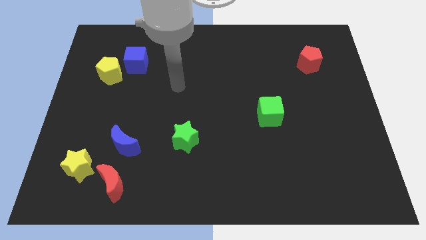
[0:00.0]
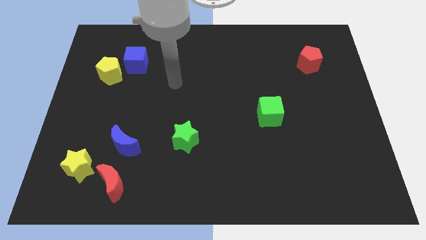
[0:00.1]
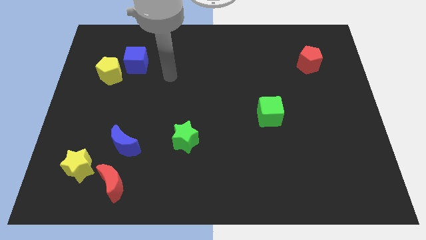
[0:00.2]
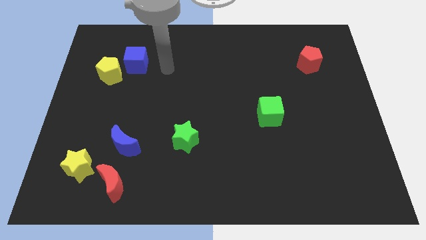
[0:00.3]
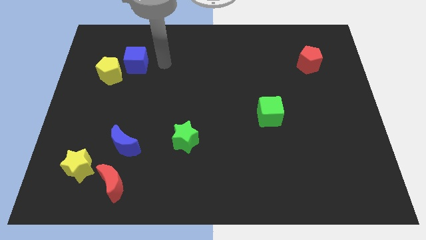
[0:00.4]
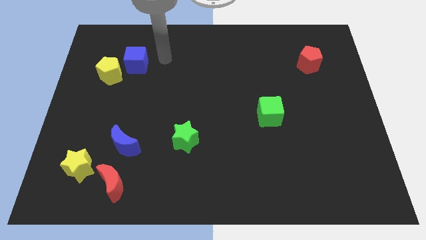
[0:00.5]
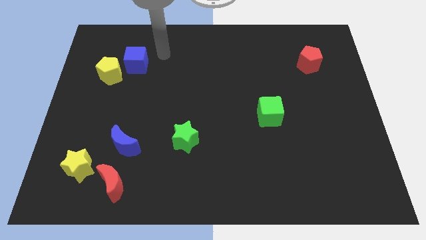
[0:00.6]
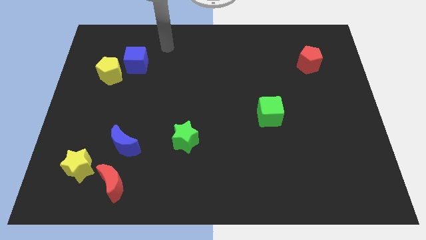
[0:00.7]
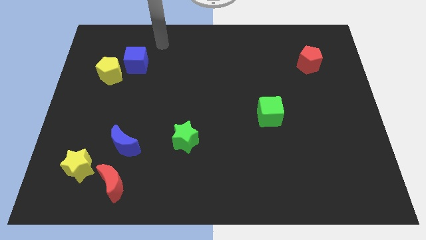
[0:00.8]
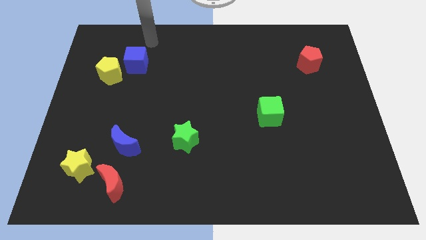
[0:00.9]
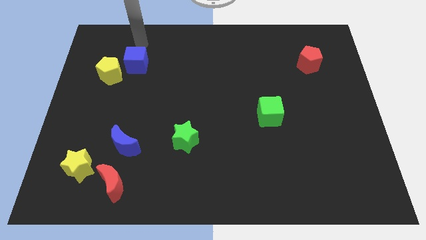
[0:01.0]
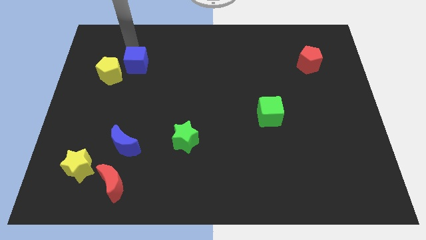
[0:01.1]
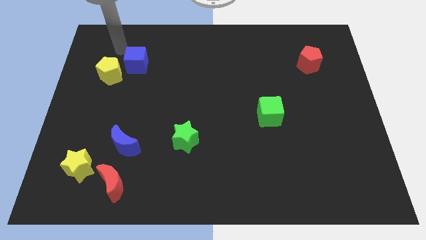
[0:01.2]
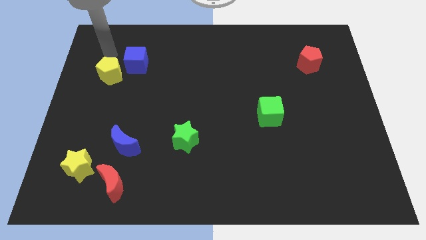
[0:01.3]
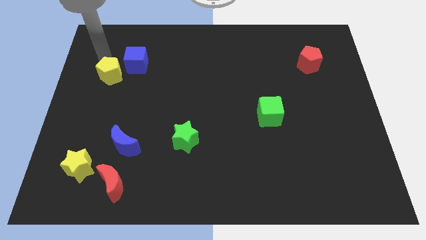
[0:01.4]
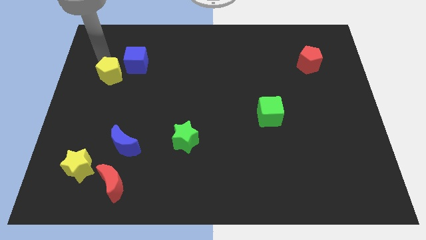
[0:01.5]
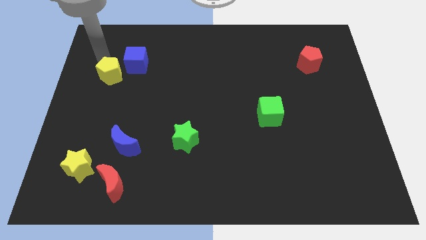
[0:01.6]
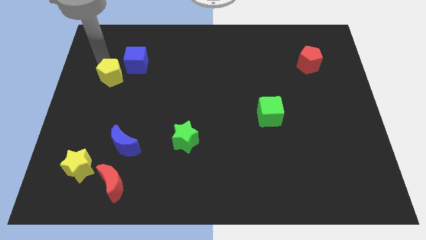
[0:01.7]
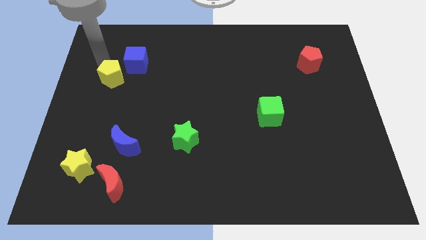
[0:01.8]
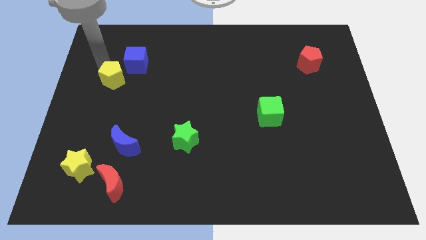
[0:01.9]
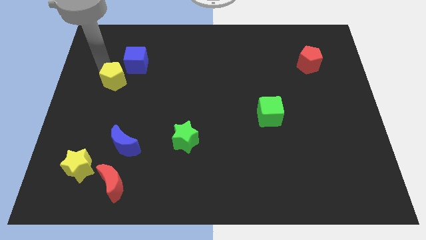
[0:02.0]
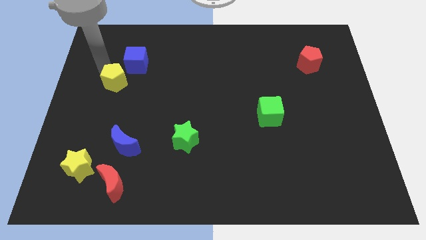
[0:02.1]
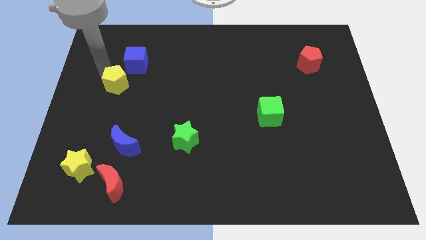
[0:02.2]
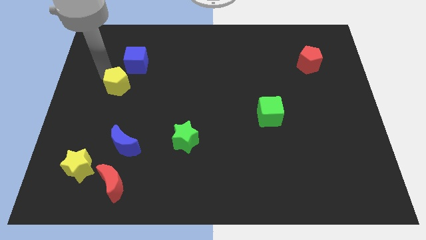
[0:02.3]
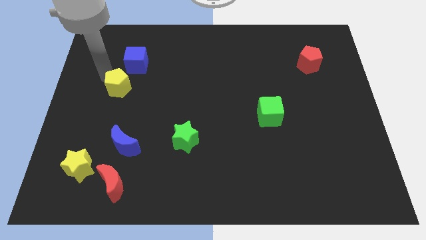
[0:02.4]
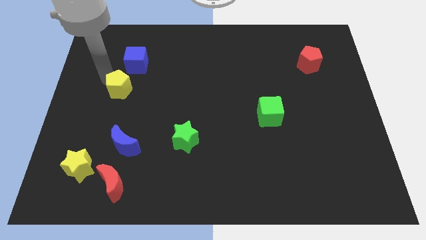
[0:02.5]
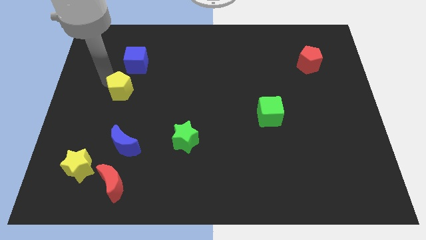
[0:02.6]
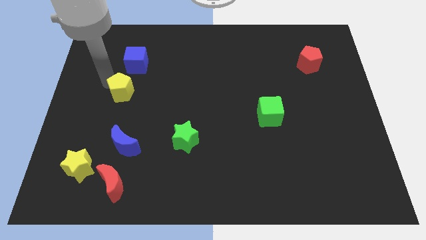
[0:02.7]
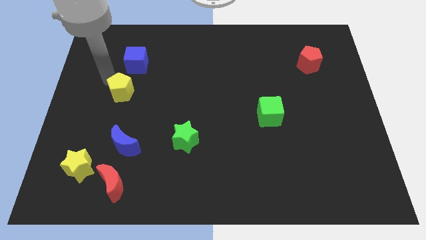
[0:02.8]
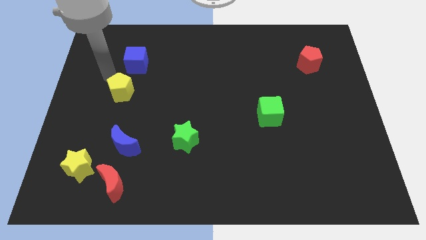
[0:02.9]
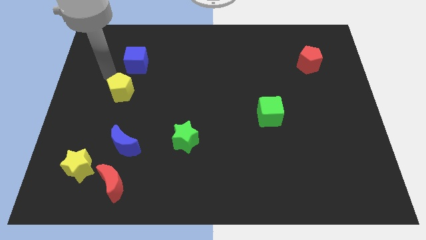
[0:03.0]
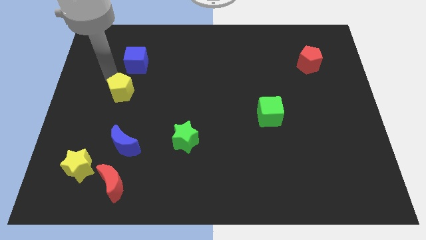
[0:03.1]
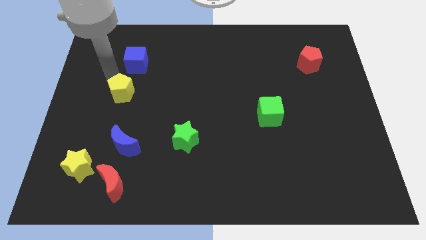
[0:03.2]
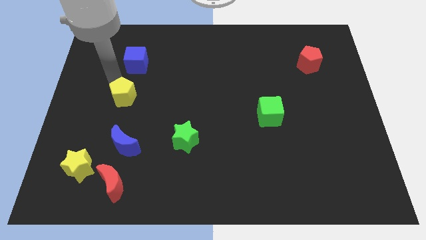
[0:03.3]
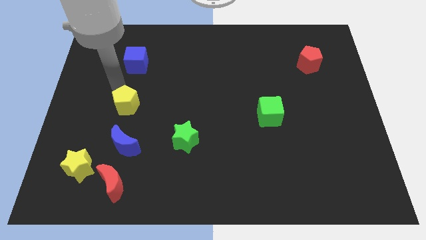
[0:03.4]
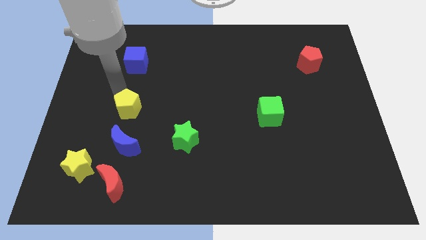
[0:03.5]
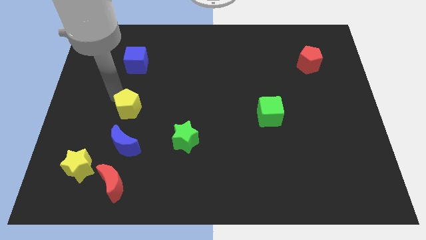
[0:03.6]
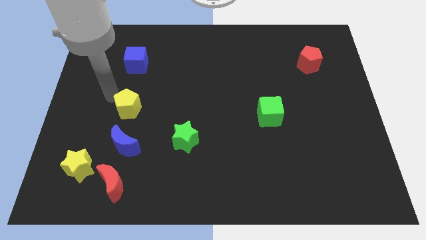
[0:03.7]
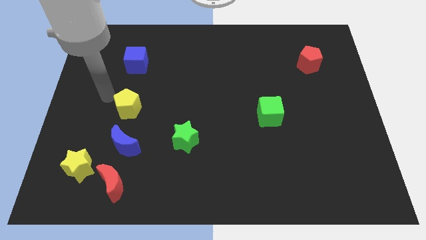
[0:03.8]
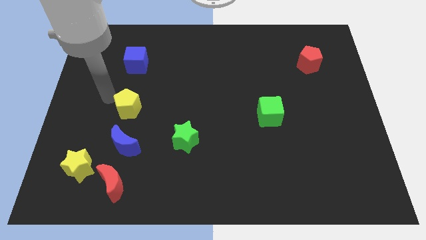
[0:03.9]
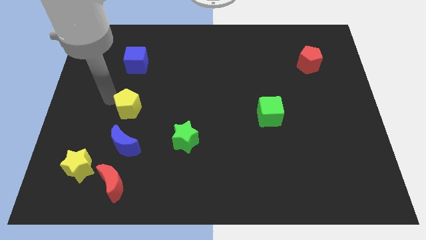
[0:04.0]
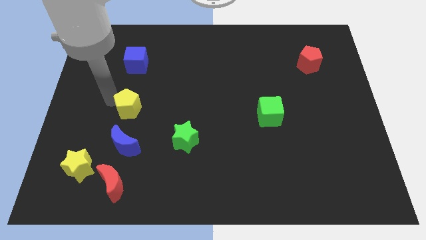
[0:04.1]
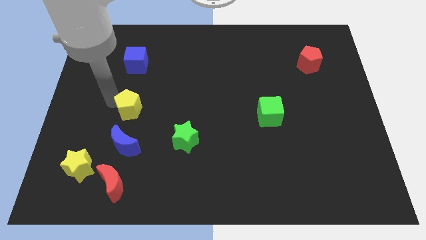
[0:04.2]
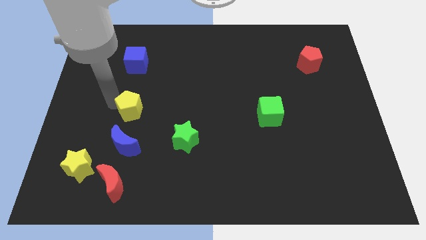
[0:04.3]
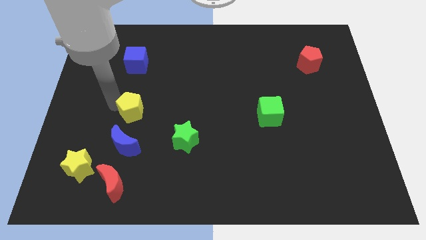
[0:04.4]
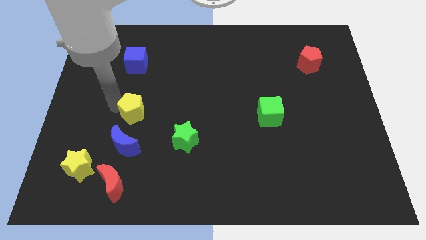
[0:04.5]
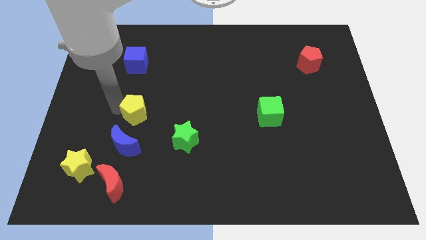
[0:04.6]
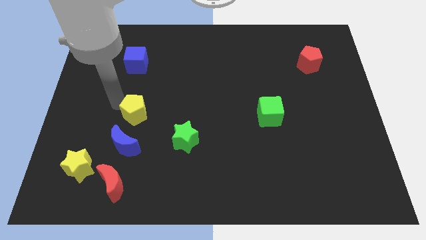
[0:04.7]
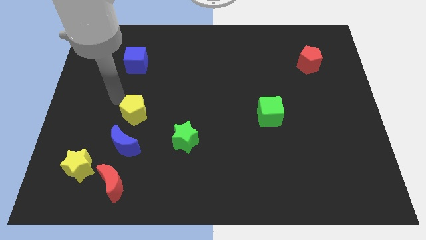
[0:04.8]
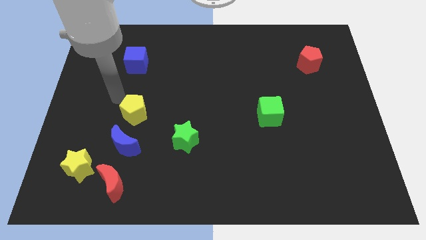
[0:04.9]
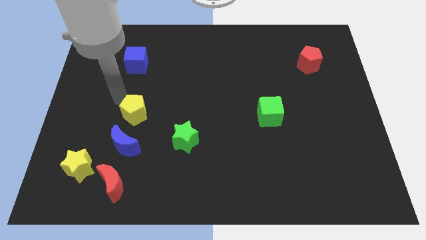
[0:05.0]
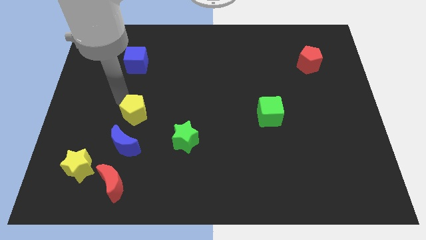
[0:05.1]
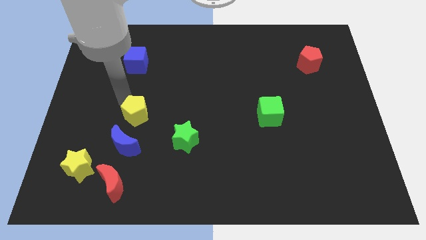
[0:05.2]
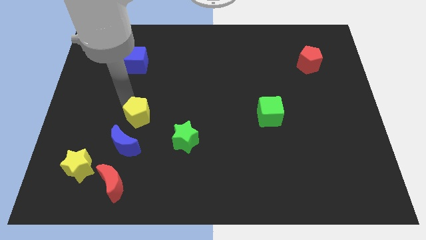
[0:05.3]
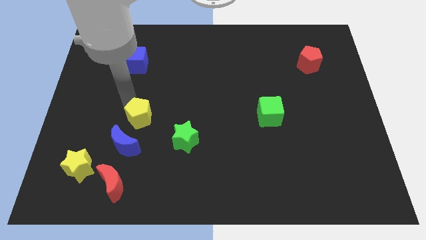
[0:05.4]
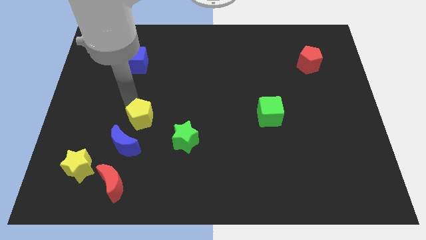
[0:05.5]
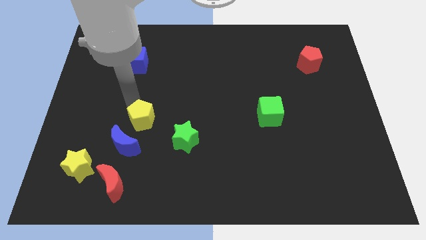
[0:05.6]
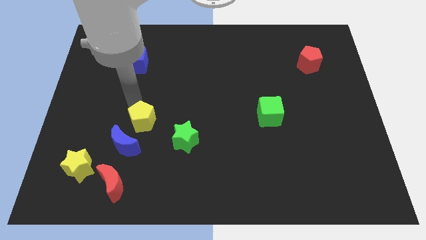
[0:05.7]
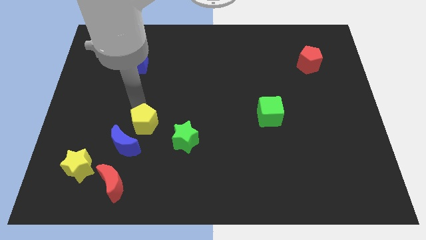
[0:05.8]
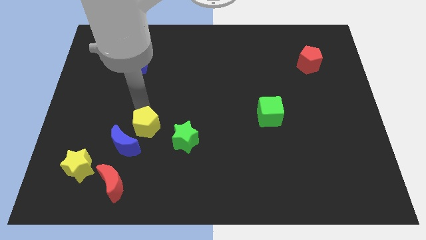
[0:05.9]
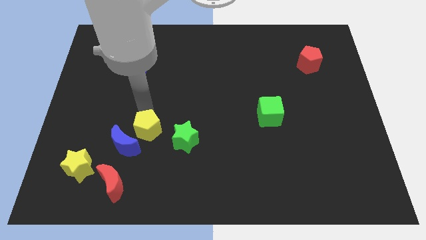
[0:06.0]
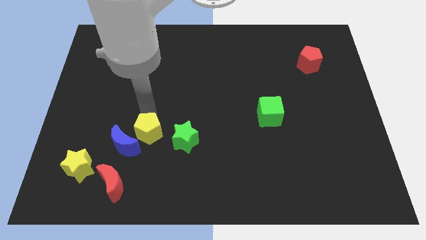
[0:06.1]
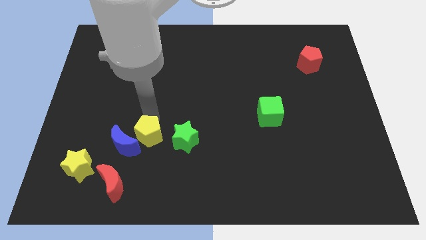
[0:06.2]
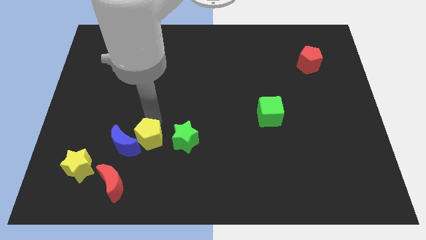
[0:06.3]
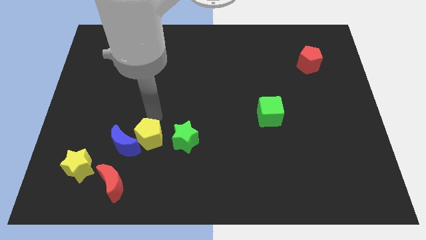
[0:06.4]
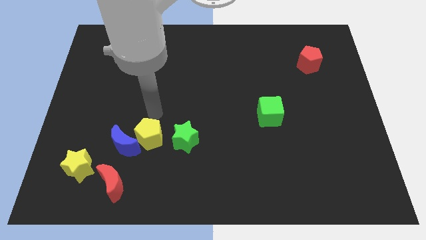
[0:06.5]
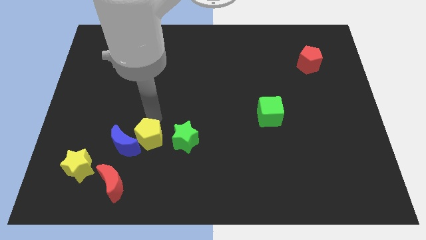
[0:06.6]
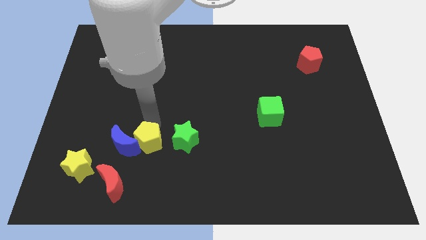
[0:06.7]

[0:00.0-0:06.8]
put the yellow pentagon to the bottom right of the blue moon
